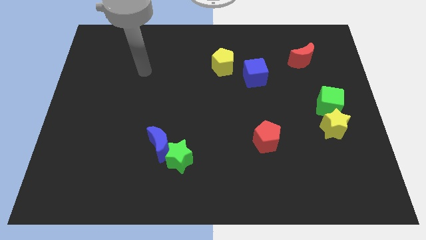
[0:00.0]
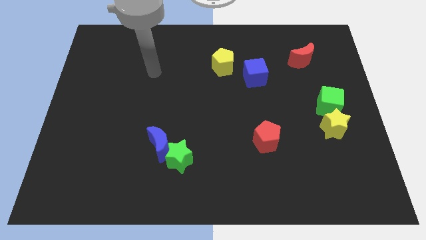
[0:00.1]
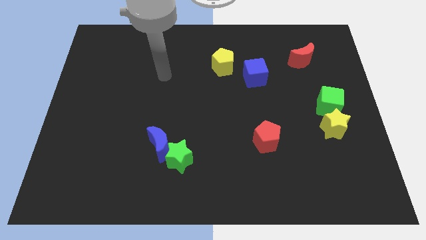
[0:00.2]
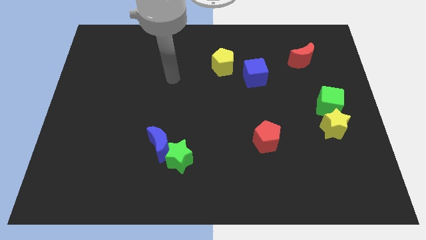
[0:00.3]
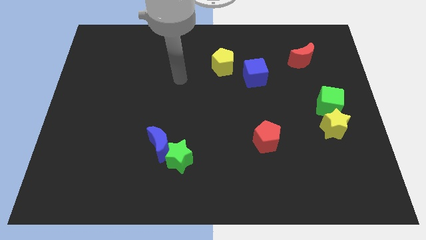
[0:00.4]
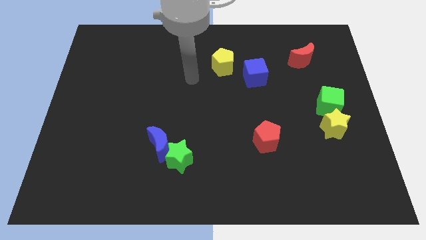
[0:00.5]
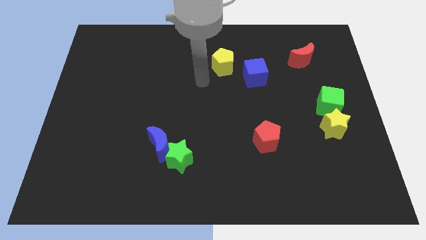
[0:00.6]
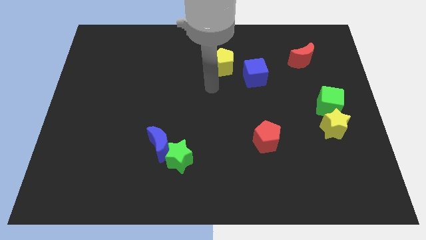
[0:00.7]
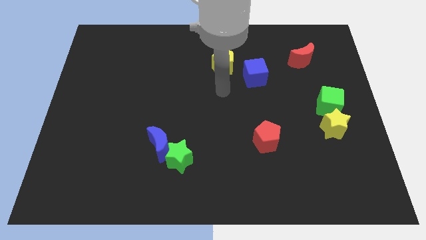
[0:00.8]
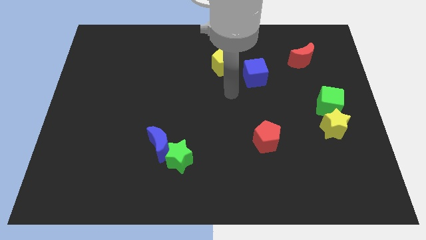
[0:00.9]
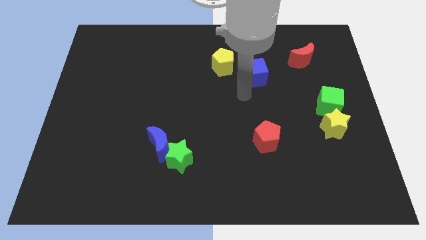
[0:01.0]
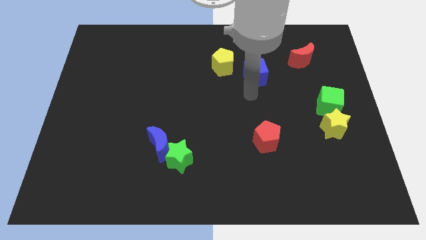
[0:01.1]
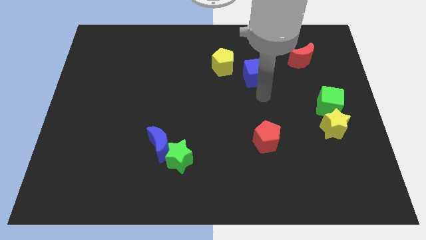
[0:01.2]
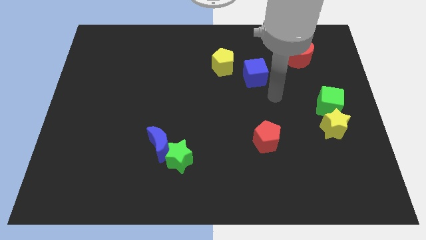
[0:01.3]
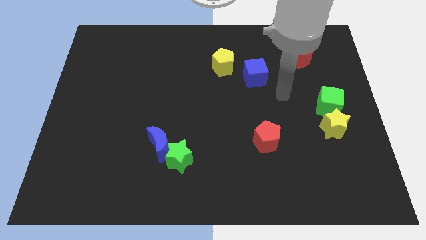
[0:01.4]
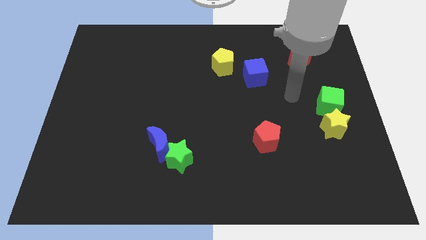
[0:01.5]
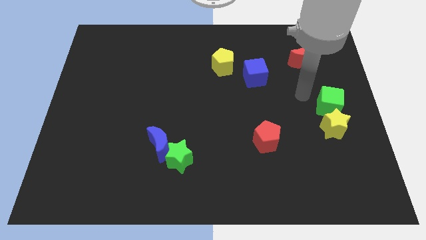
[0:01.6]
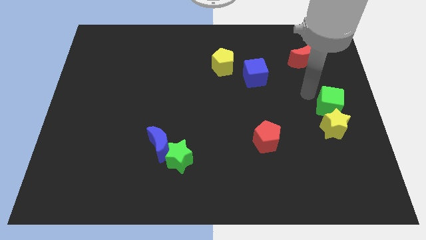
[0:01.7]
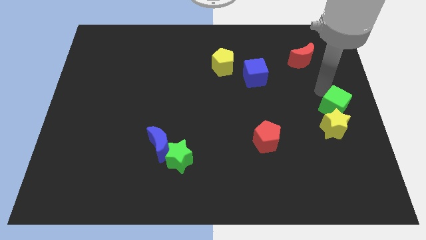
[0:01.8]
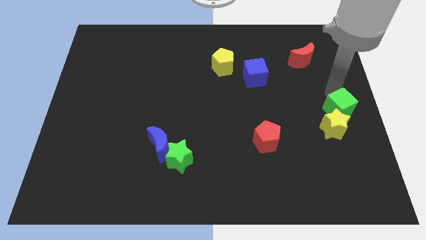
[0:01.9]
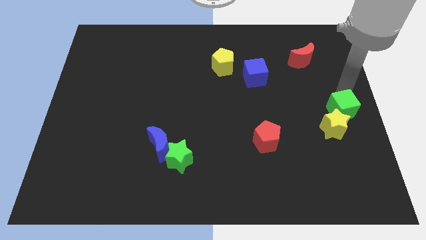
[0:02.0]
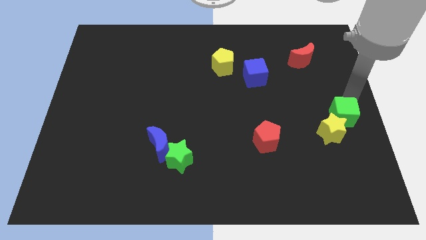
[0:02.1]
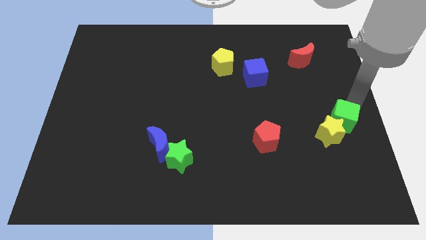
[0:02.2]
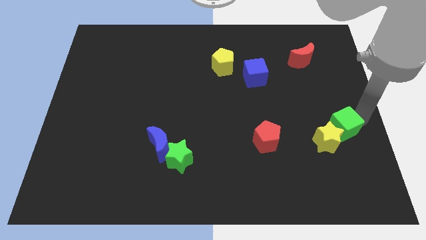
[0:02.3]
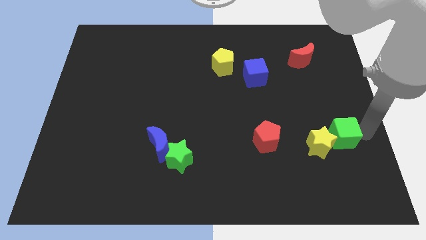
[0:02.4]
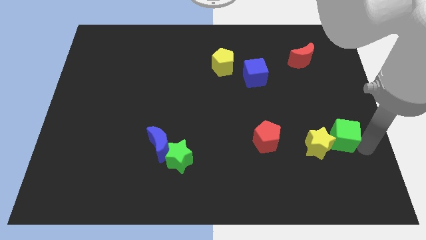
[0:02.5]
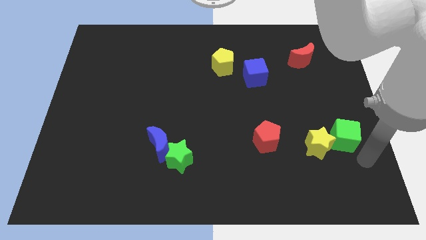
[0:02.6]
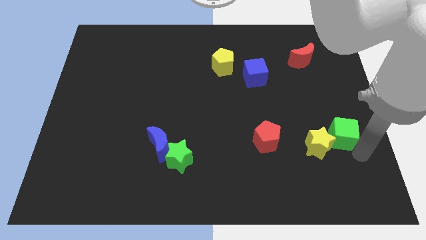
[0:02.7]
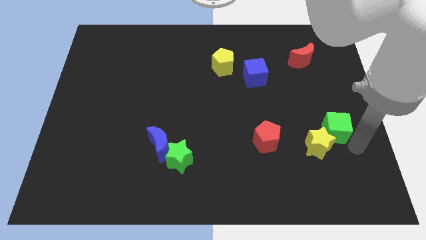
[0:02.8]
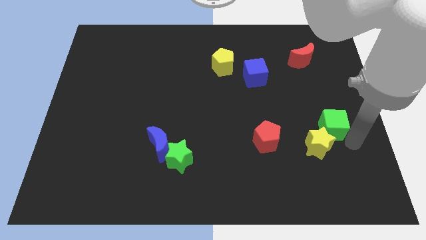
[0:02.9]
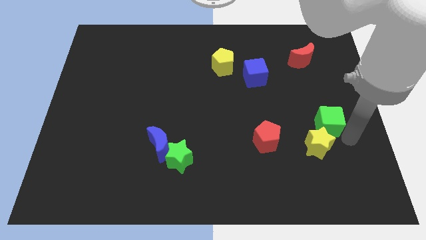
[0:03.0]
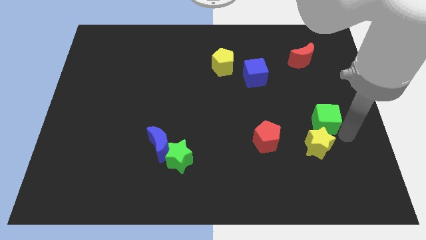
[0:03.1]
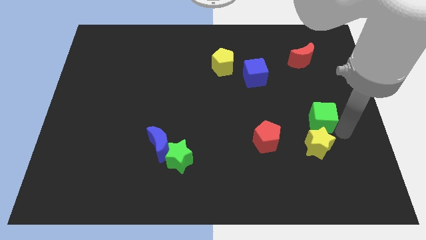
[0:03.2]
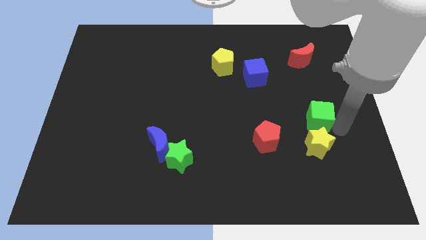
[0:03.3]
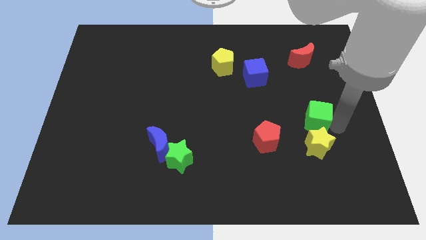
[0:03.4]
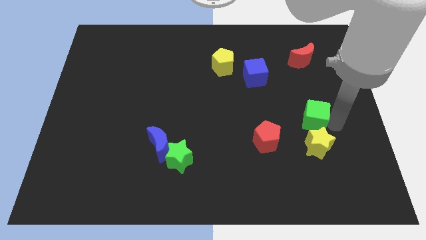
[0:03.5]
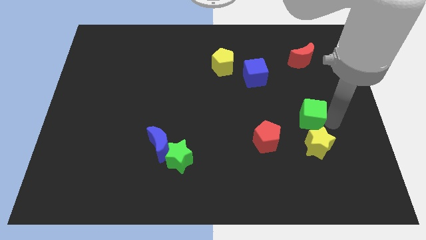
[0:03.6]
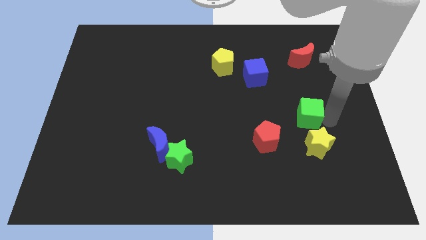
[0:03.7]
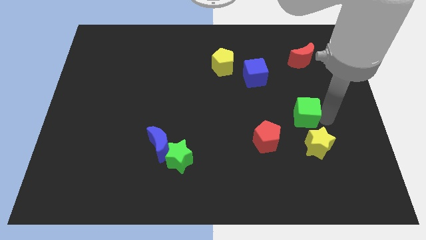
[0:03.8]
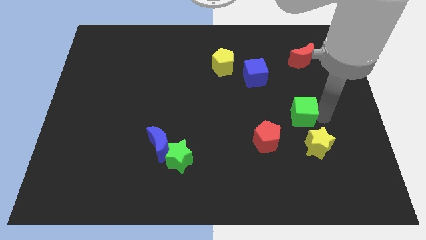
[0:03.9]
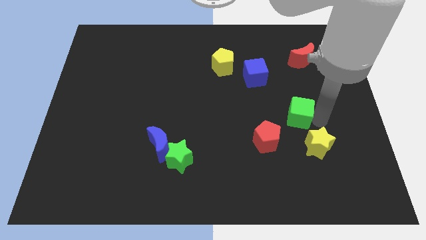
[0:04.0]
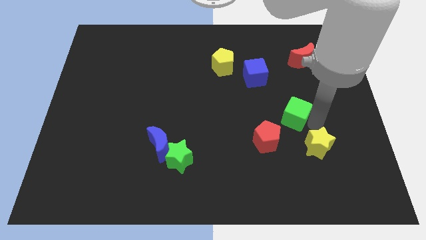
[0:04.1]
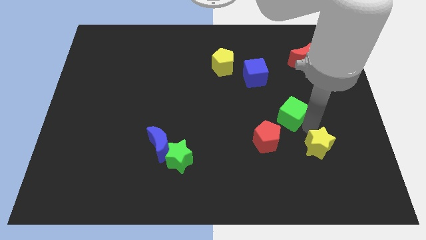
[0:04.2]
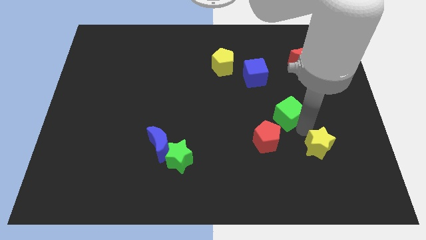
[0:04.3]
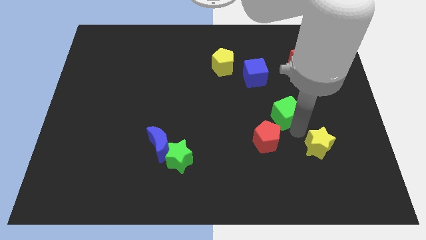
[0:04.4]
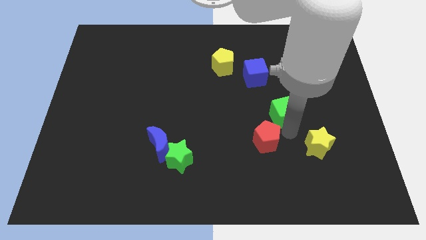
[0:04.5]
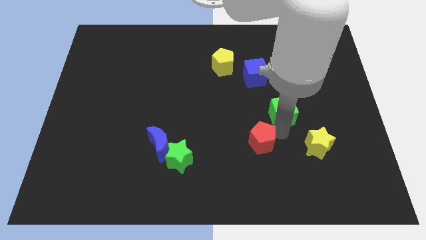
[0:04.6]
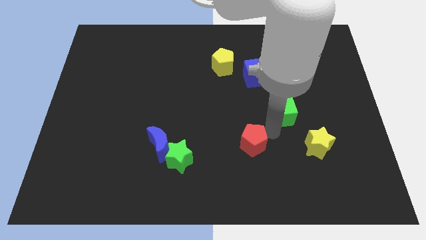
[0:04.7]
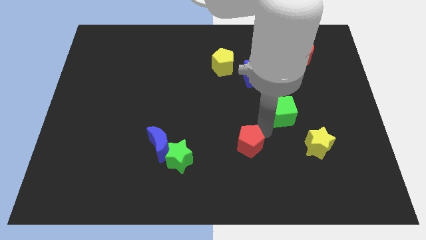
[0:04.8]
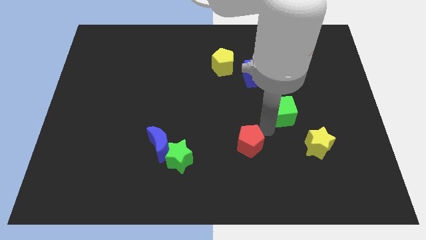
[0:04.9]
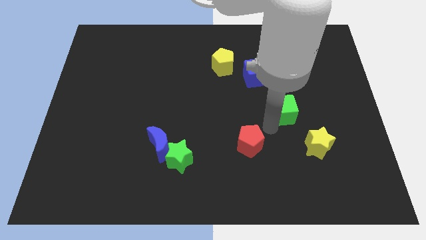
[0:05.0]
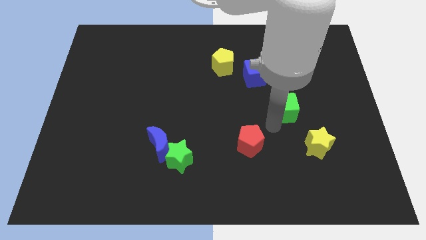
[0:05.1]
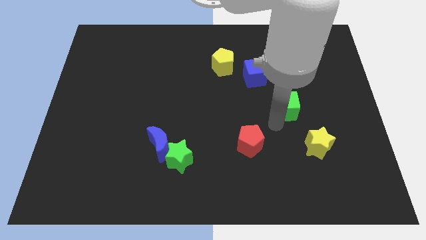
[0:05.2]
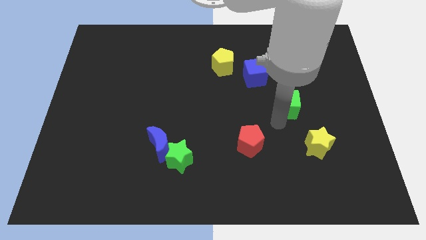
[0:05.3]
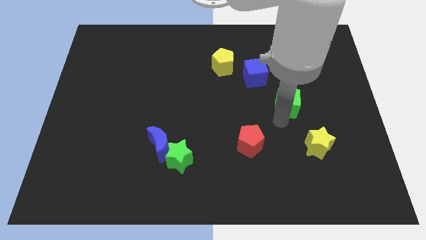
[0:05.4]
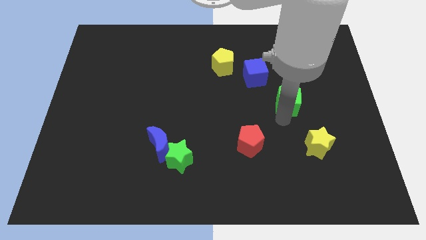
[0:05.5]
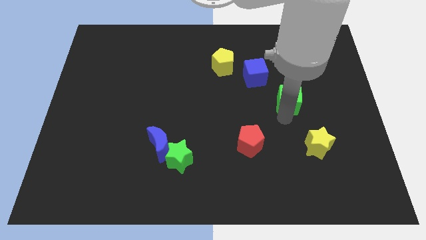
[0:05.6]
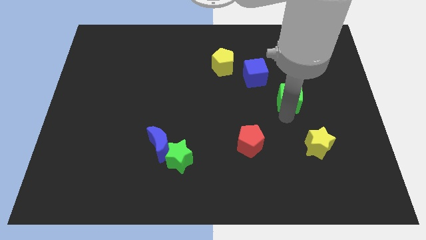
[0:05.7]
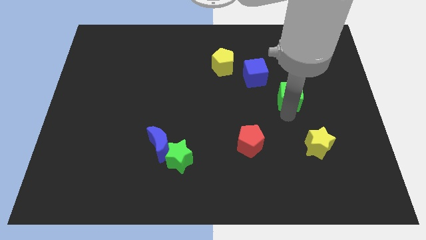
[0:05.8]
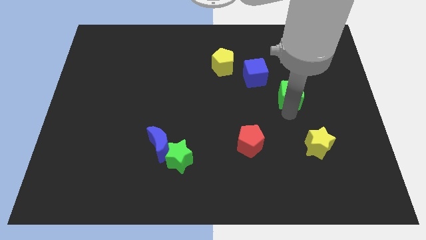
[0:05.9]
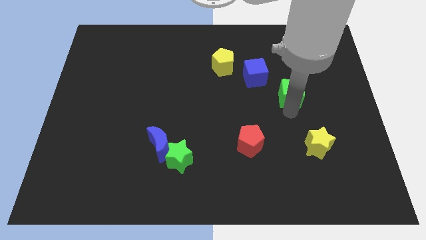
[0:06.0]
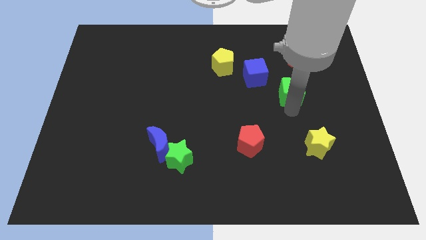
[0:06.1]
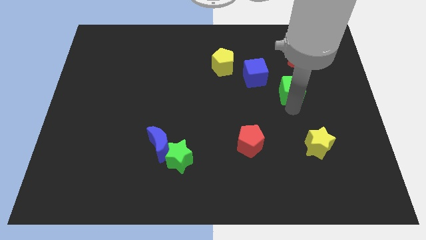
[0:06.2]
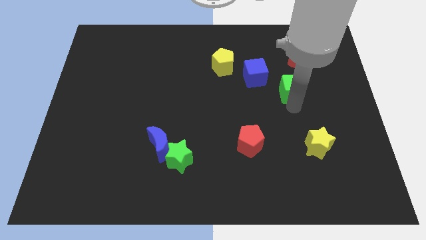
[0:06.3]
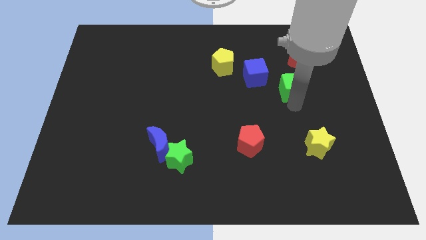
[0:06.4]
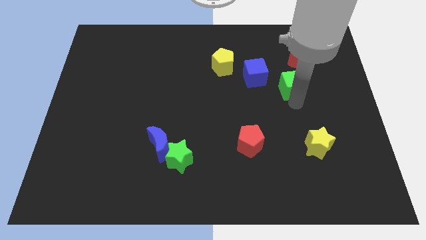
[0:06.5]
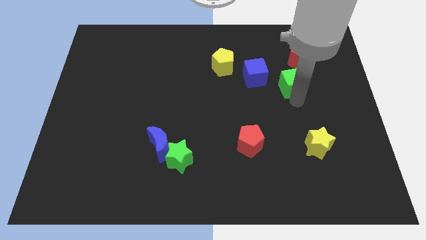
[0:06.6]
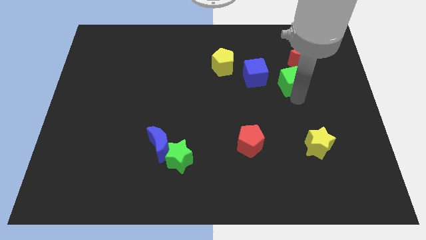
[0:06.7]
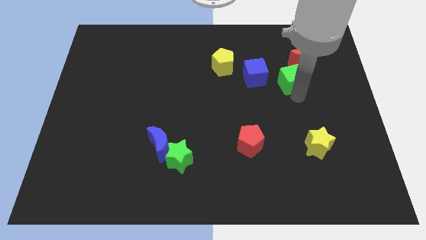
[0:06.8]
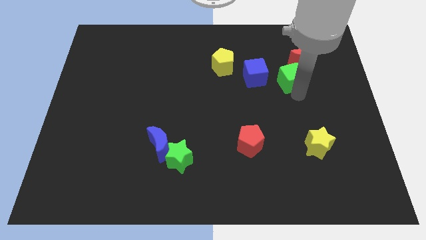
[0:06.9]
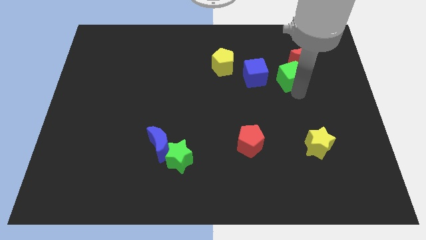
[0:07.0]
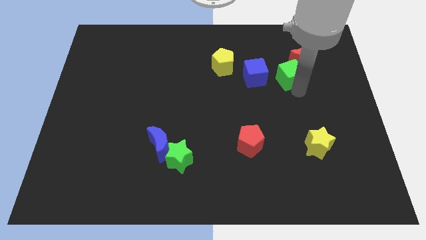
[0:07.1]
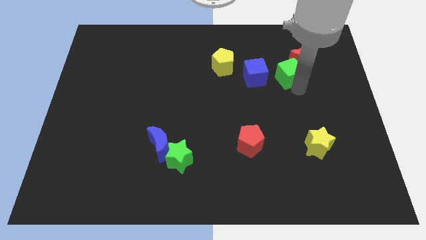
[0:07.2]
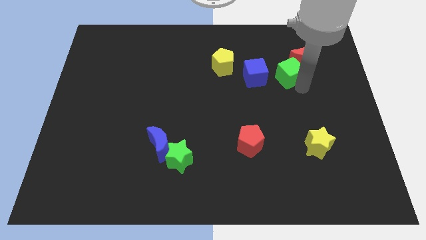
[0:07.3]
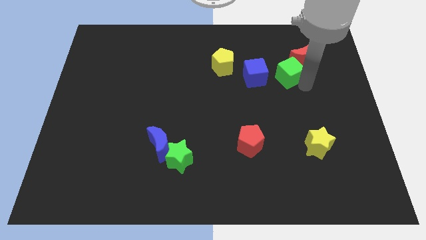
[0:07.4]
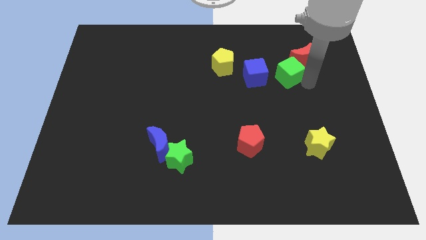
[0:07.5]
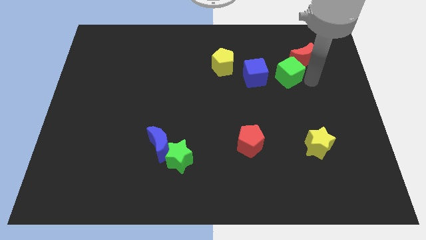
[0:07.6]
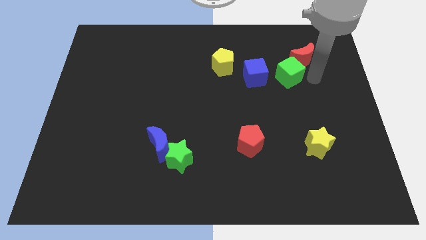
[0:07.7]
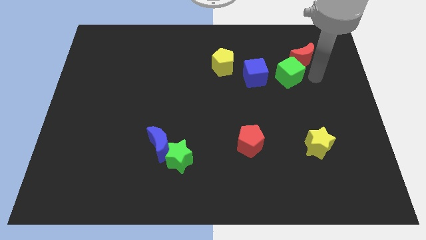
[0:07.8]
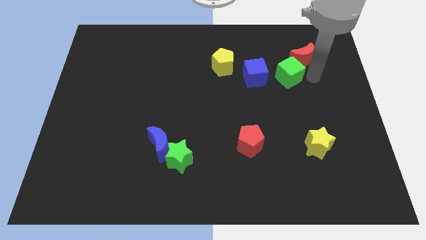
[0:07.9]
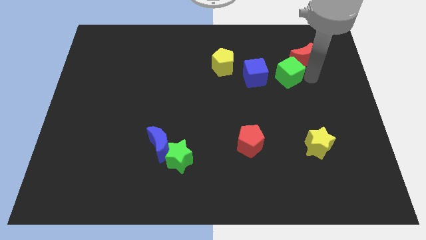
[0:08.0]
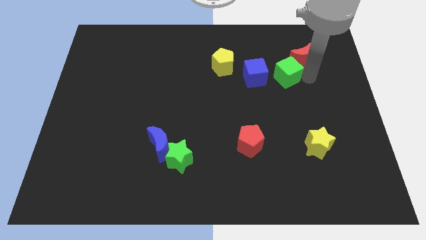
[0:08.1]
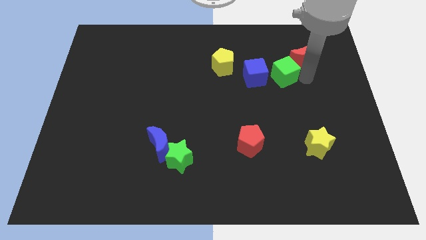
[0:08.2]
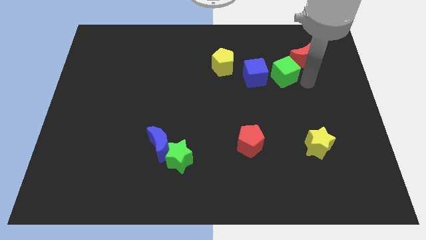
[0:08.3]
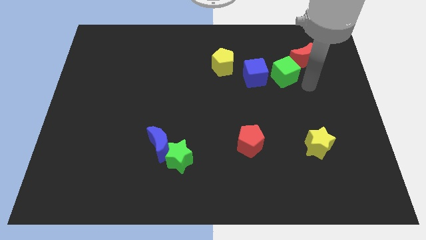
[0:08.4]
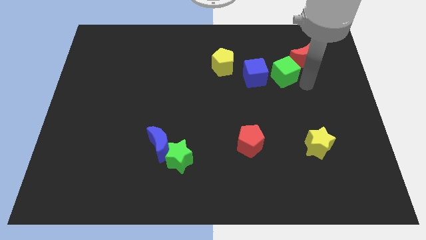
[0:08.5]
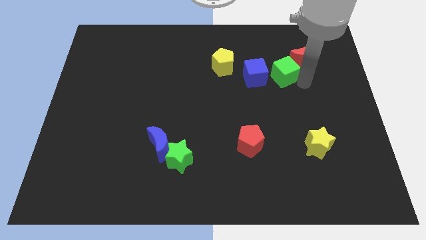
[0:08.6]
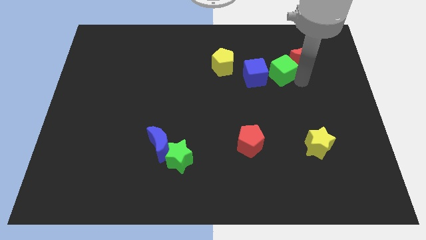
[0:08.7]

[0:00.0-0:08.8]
push the green cube to the right of the yellow pentagon
